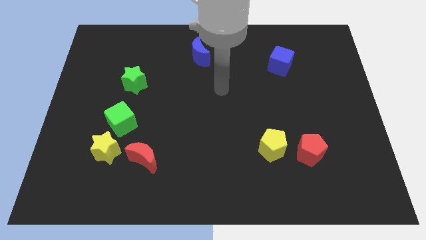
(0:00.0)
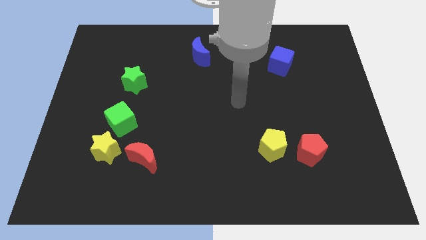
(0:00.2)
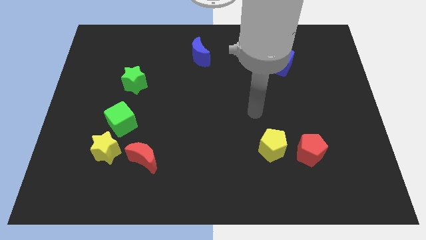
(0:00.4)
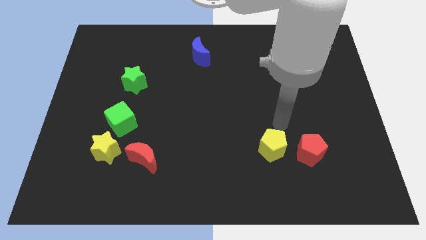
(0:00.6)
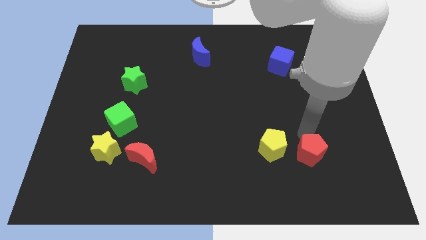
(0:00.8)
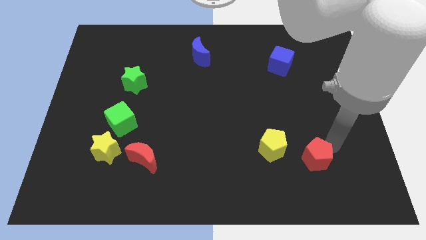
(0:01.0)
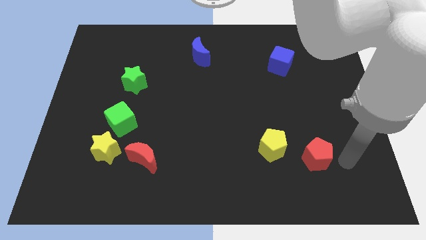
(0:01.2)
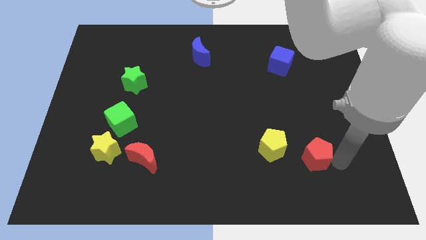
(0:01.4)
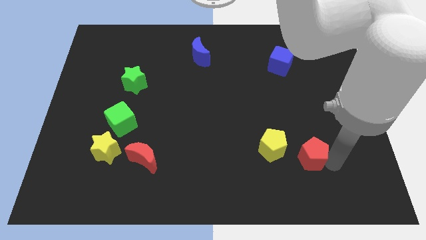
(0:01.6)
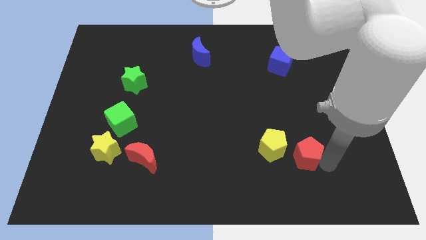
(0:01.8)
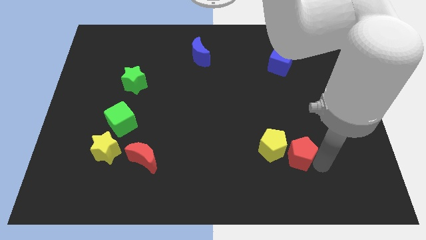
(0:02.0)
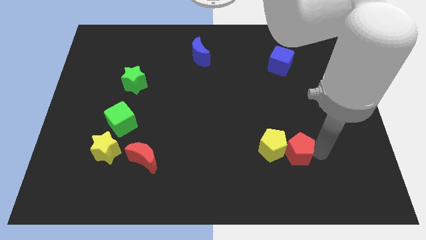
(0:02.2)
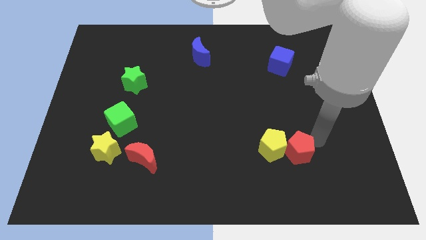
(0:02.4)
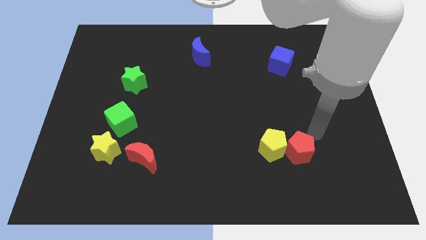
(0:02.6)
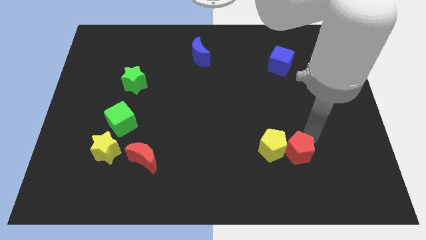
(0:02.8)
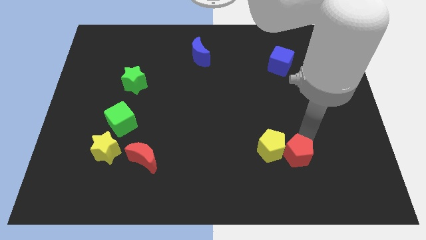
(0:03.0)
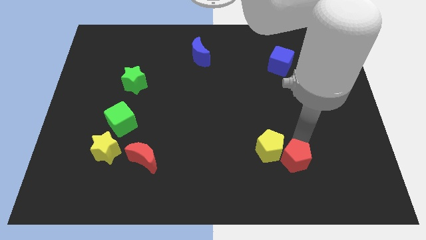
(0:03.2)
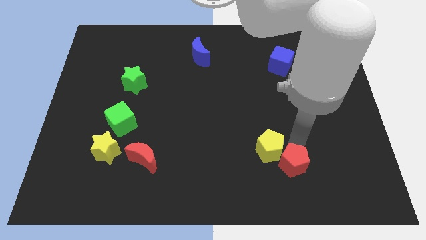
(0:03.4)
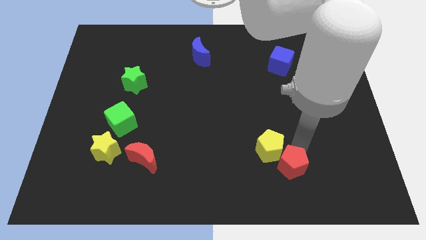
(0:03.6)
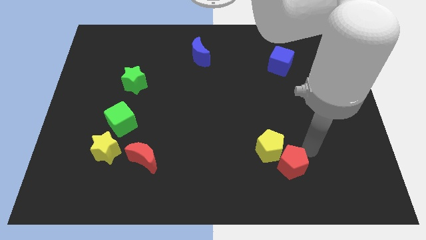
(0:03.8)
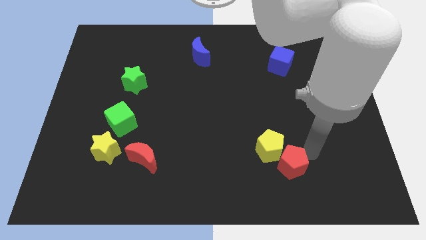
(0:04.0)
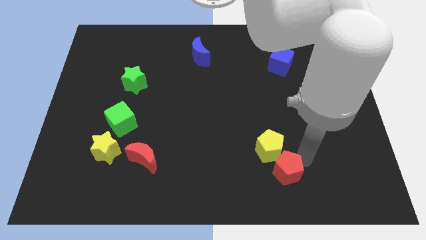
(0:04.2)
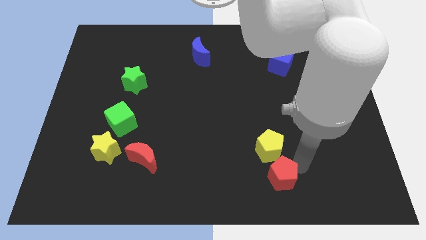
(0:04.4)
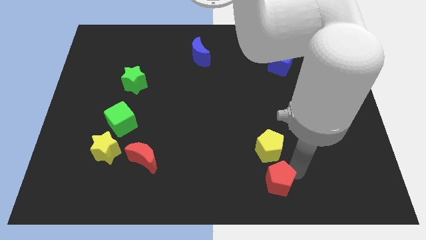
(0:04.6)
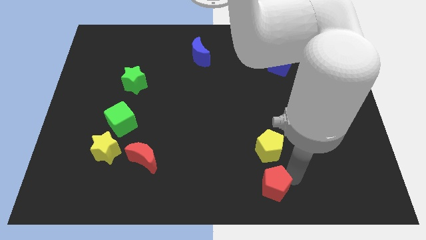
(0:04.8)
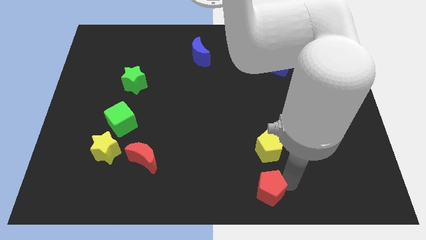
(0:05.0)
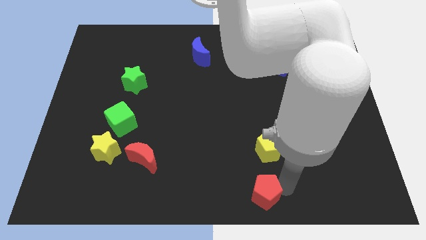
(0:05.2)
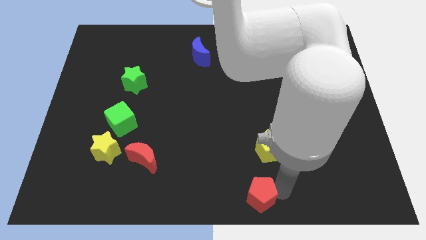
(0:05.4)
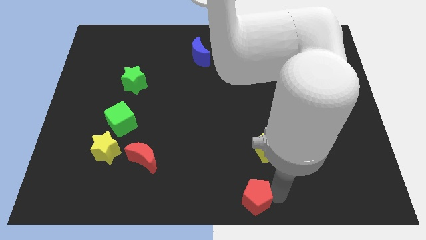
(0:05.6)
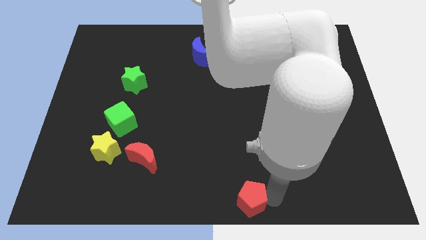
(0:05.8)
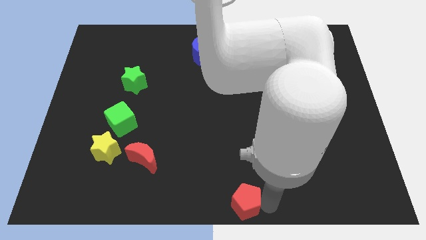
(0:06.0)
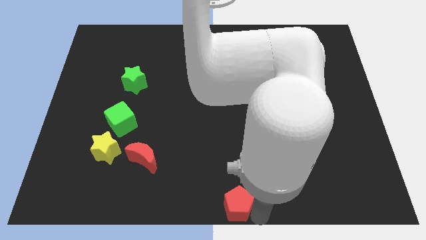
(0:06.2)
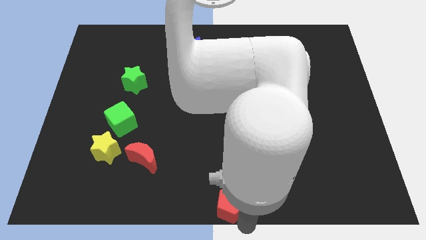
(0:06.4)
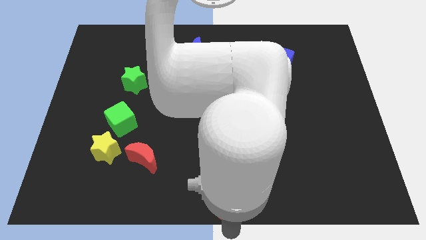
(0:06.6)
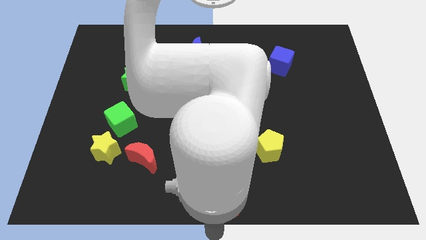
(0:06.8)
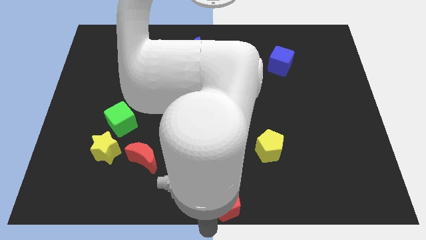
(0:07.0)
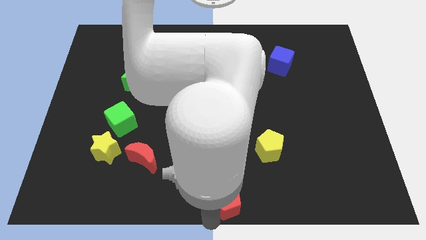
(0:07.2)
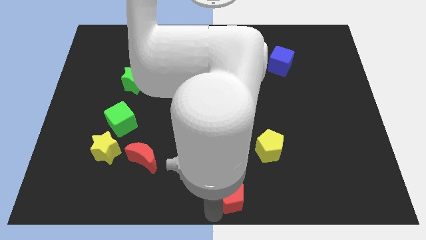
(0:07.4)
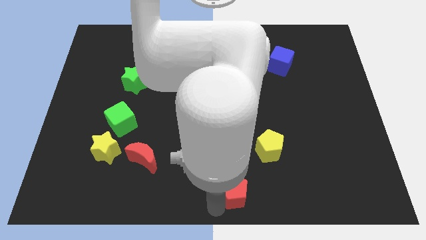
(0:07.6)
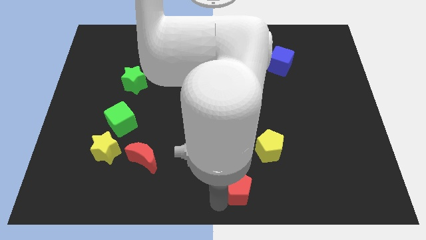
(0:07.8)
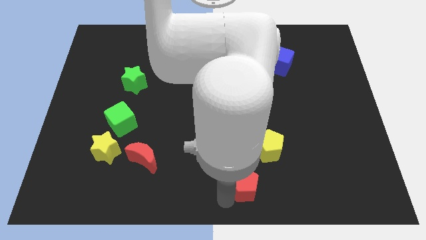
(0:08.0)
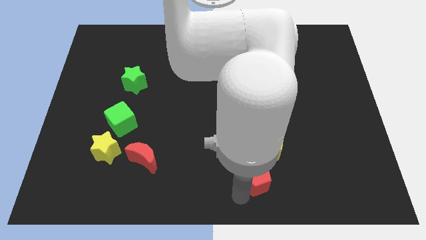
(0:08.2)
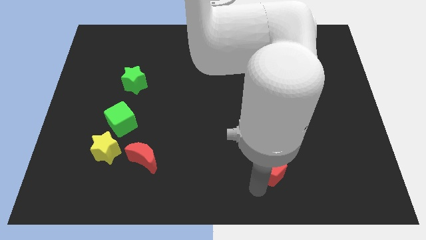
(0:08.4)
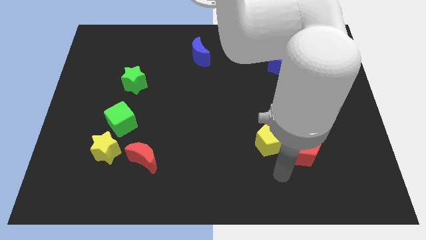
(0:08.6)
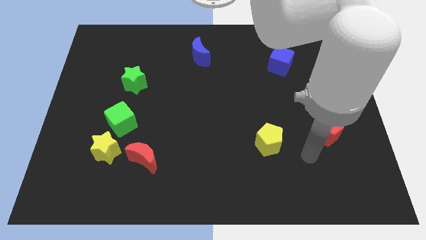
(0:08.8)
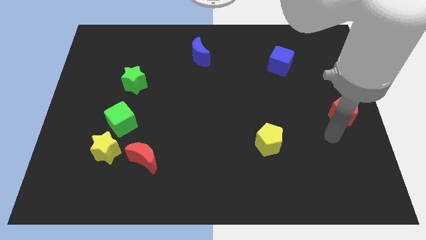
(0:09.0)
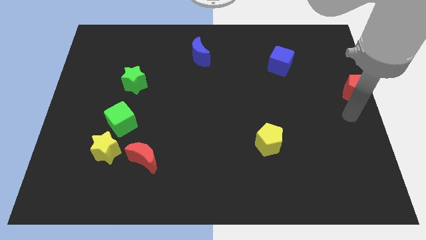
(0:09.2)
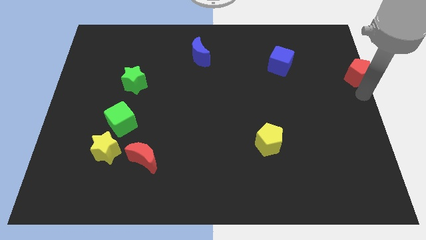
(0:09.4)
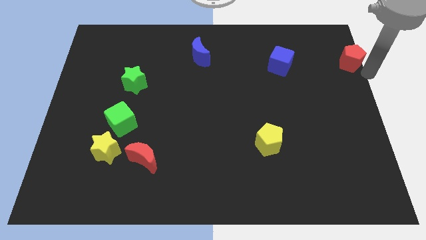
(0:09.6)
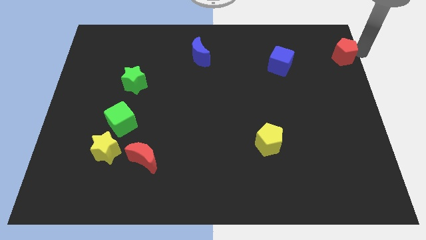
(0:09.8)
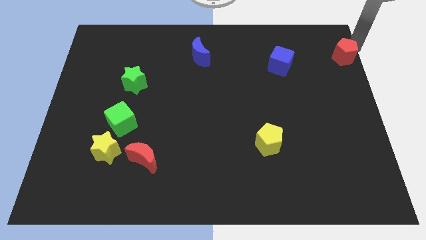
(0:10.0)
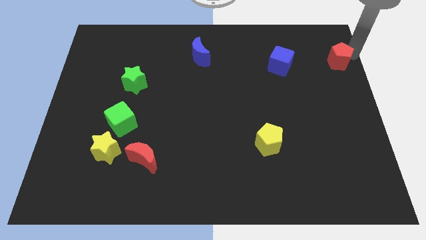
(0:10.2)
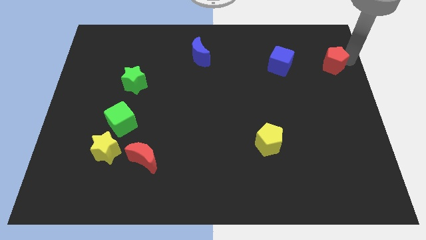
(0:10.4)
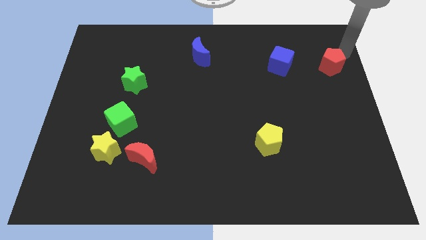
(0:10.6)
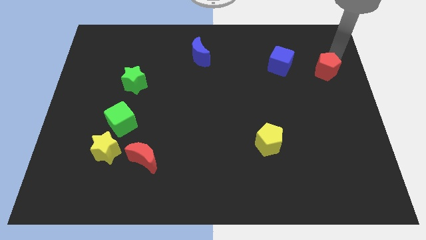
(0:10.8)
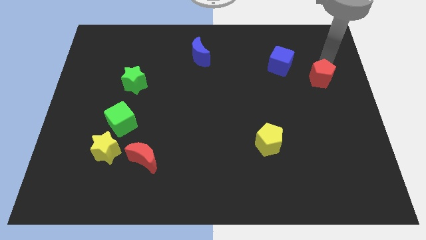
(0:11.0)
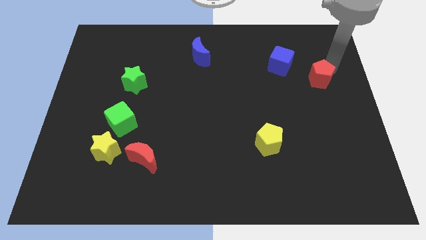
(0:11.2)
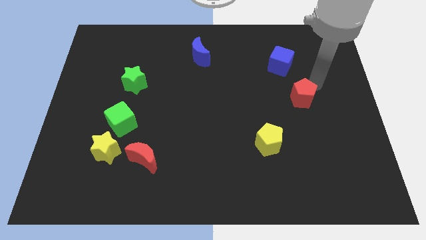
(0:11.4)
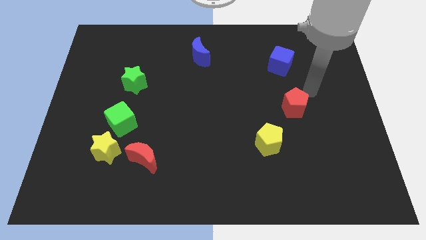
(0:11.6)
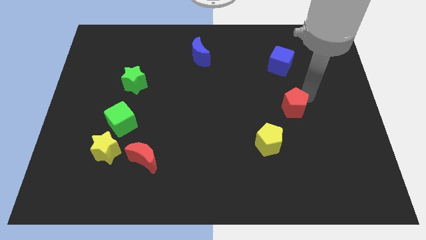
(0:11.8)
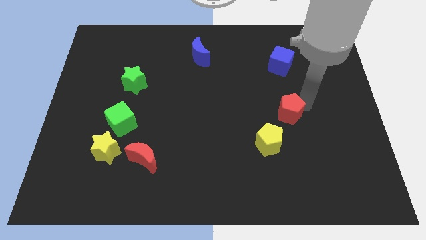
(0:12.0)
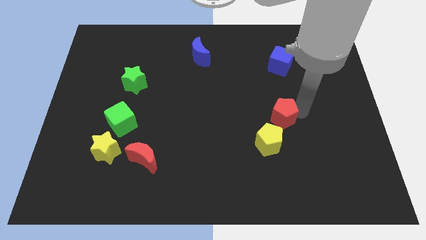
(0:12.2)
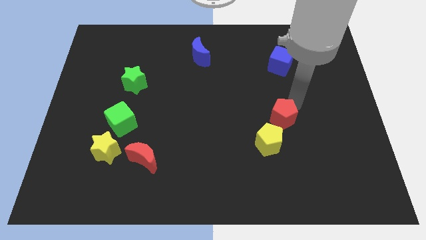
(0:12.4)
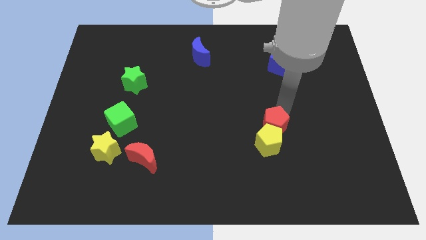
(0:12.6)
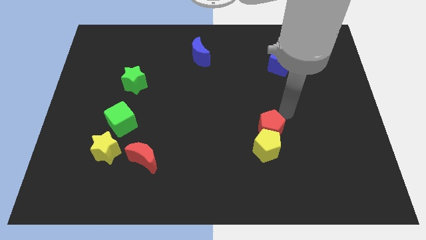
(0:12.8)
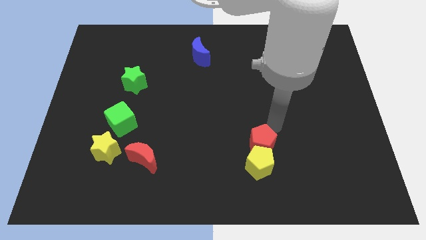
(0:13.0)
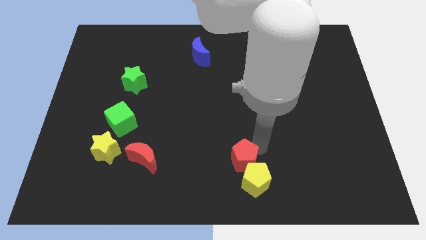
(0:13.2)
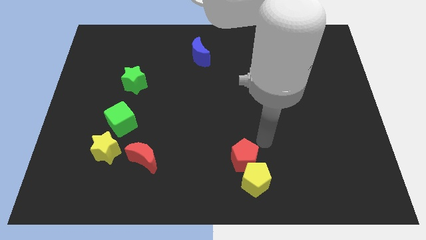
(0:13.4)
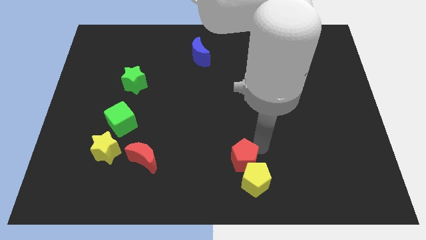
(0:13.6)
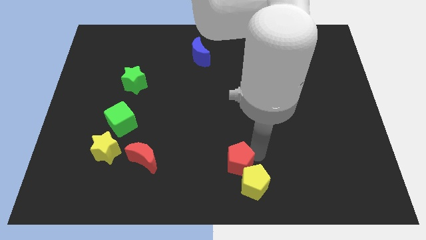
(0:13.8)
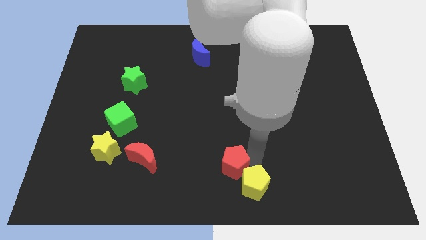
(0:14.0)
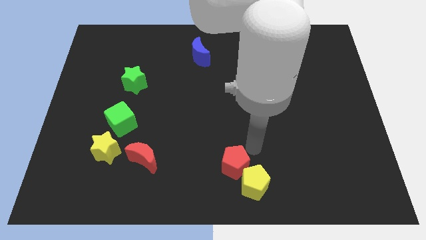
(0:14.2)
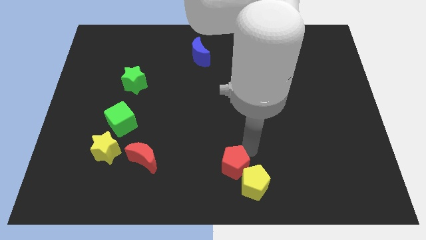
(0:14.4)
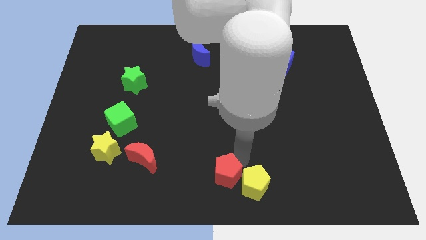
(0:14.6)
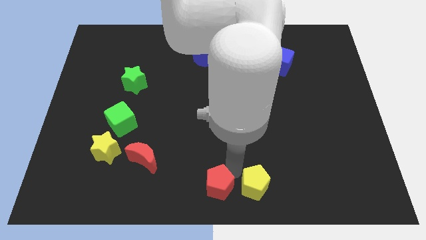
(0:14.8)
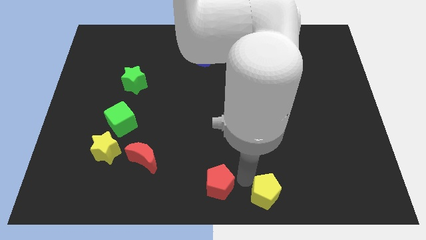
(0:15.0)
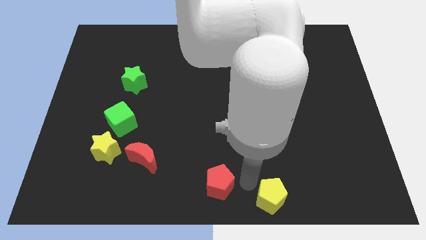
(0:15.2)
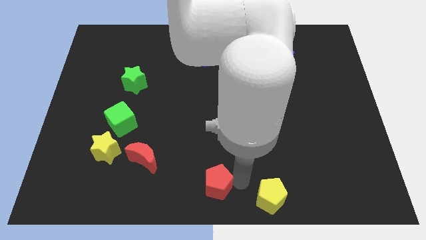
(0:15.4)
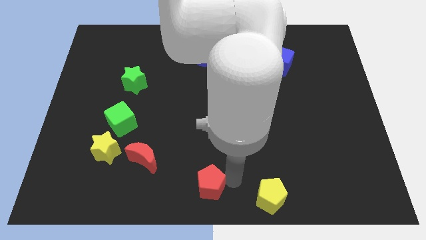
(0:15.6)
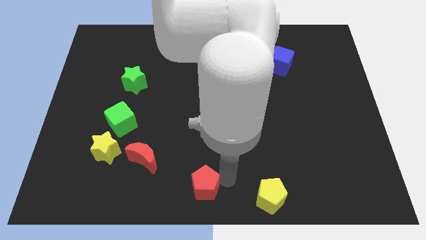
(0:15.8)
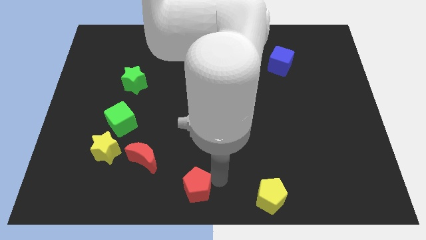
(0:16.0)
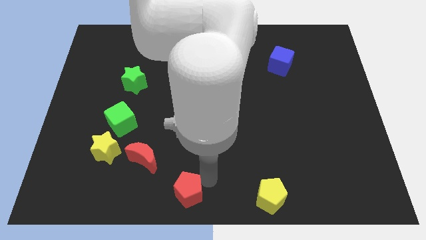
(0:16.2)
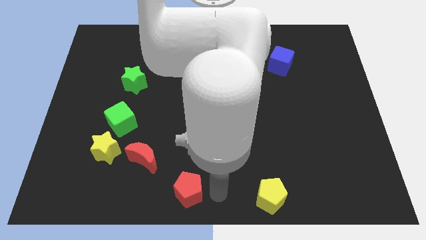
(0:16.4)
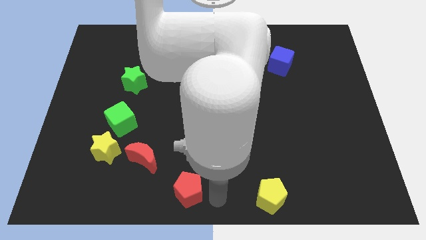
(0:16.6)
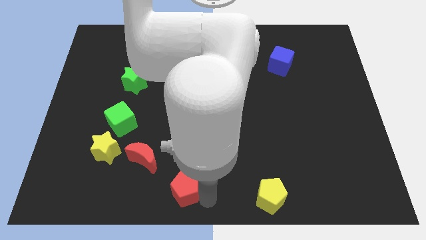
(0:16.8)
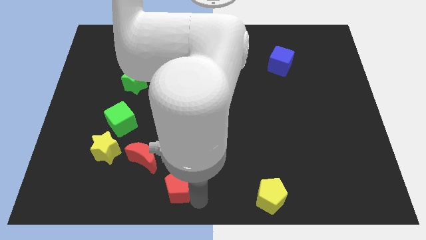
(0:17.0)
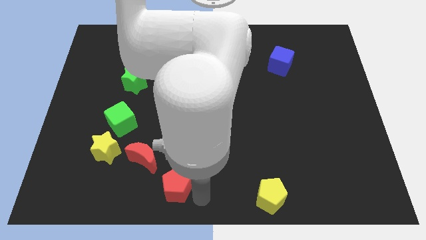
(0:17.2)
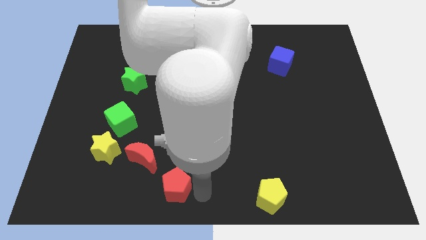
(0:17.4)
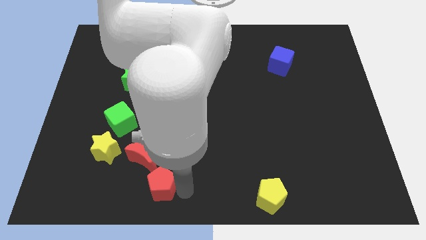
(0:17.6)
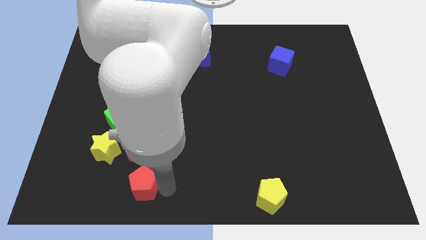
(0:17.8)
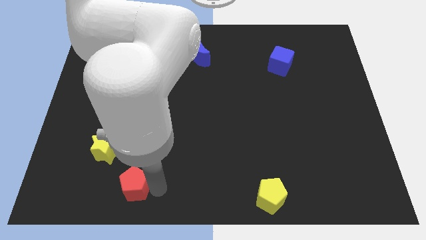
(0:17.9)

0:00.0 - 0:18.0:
slide the red pentagon to the bottom left of the red moon
